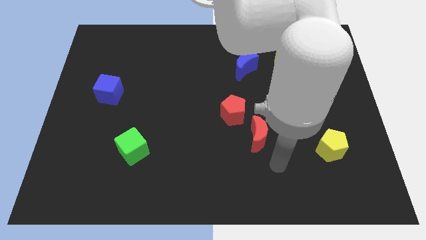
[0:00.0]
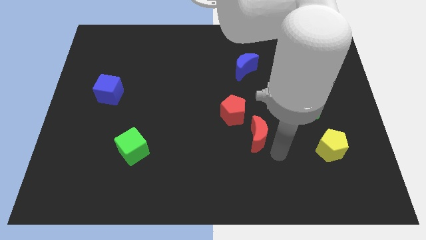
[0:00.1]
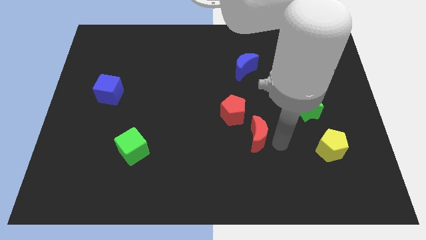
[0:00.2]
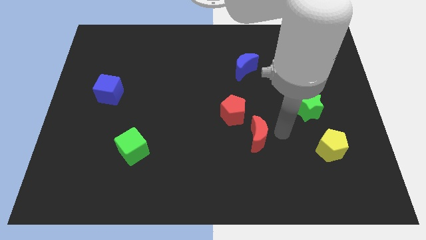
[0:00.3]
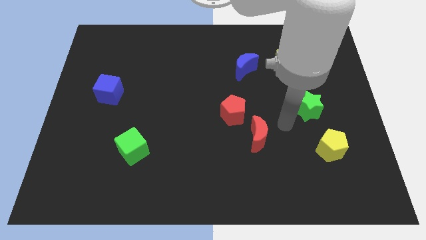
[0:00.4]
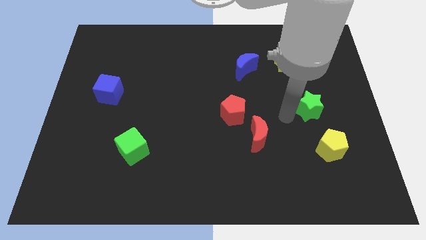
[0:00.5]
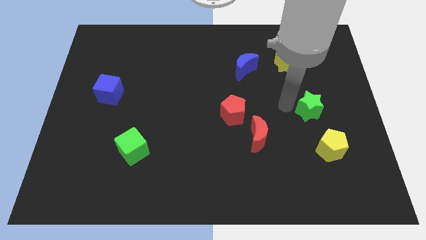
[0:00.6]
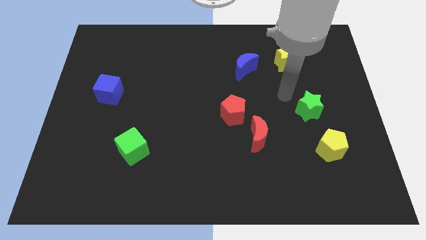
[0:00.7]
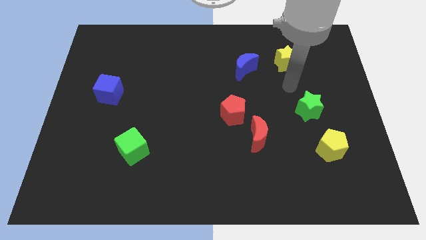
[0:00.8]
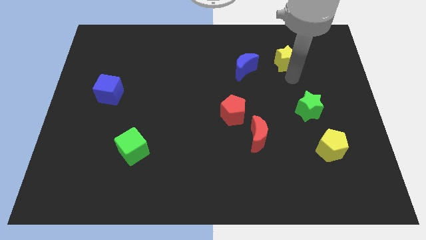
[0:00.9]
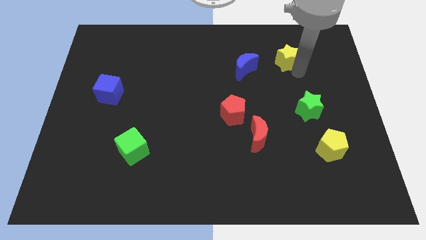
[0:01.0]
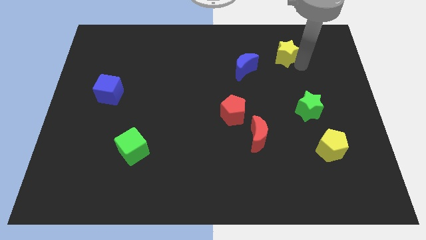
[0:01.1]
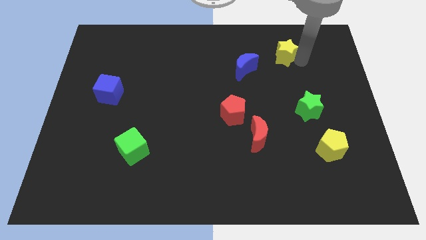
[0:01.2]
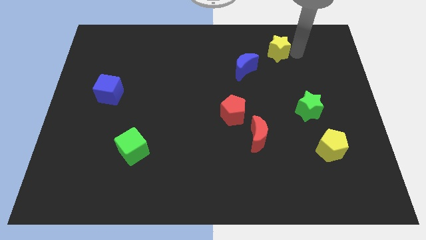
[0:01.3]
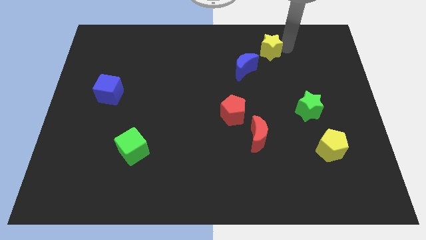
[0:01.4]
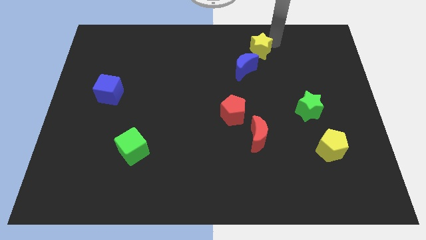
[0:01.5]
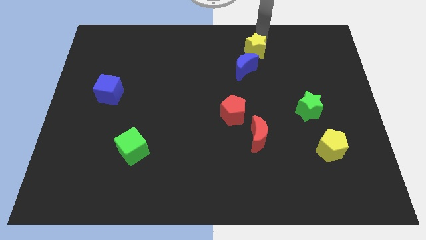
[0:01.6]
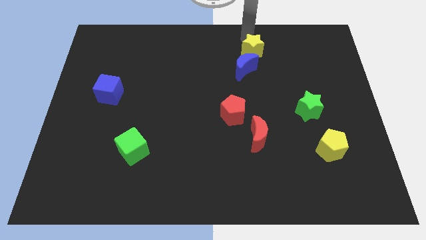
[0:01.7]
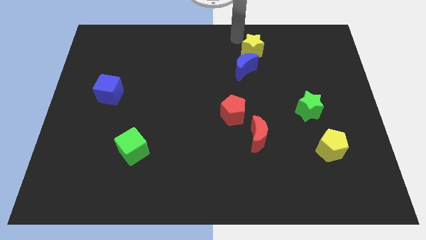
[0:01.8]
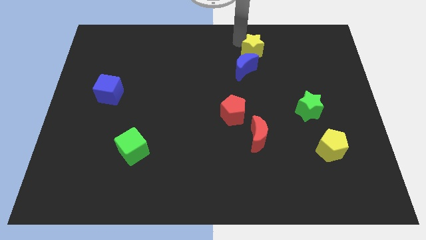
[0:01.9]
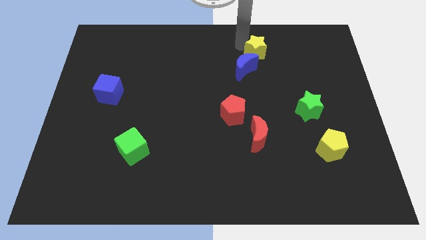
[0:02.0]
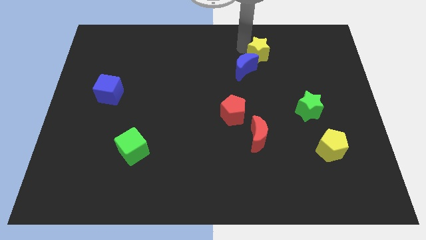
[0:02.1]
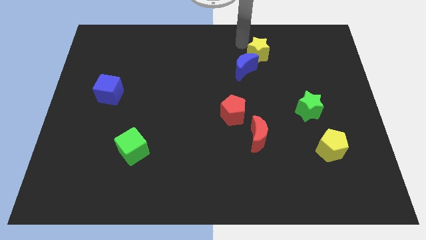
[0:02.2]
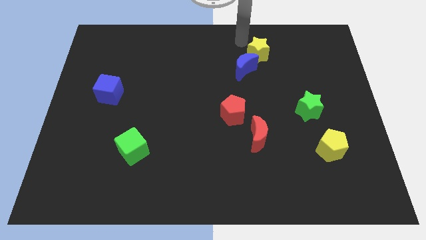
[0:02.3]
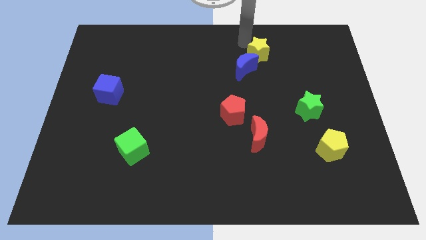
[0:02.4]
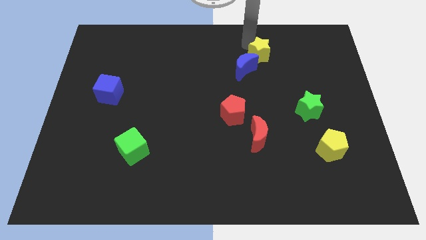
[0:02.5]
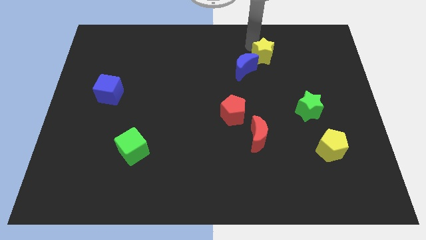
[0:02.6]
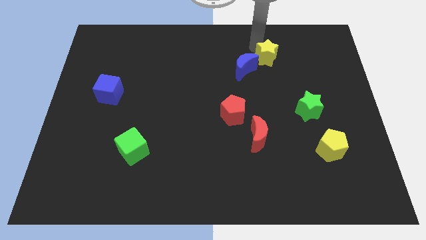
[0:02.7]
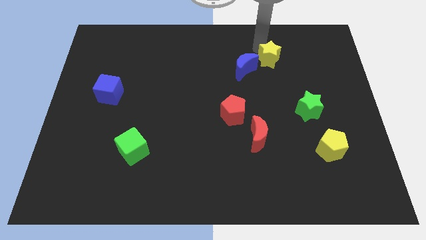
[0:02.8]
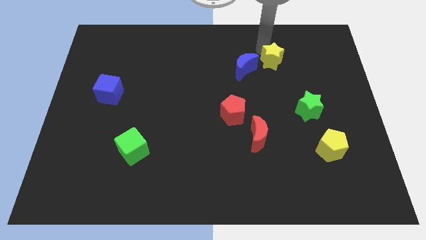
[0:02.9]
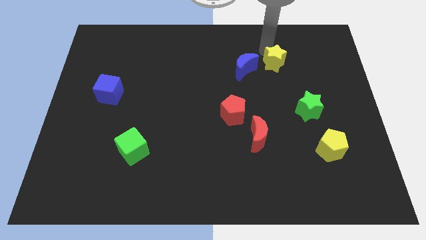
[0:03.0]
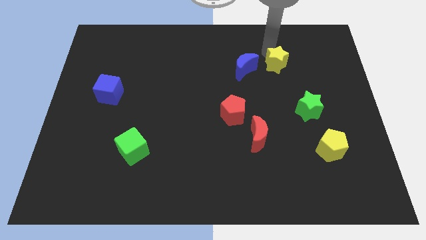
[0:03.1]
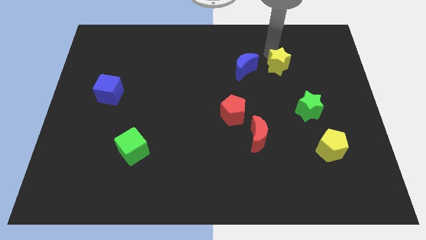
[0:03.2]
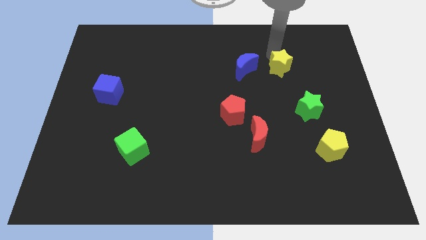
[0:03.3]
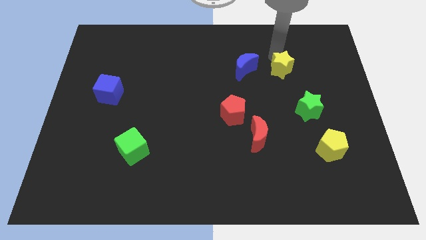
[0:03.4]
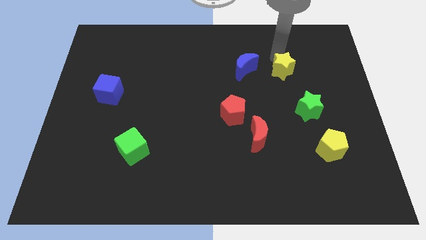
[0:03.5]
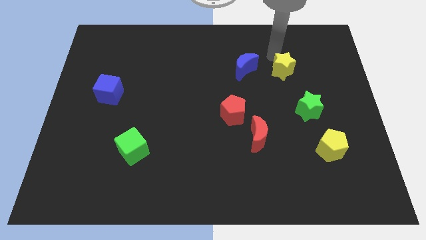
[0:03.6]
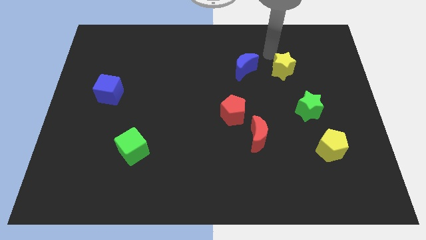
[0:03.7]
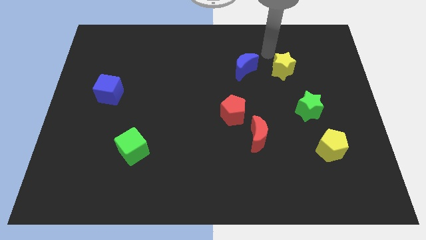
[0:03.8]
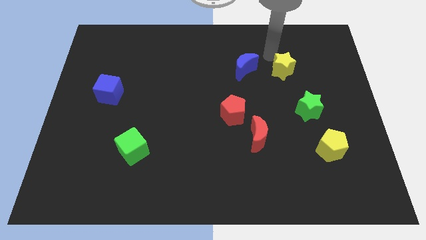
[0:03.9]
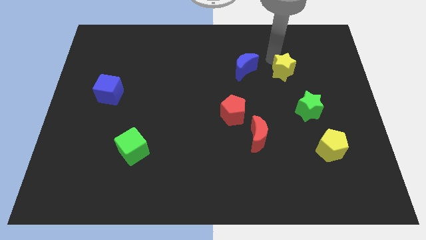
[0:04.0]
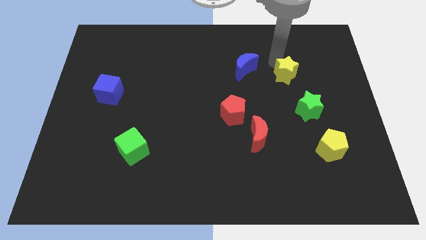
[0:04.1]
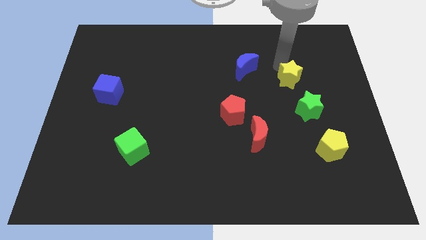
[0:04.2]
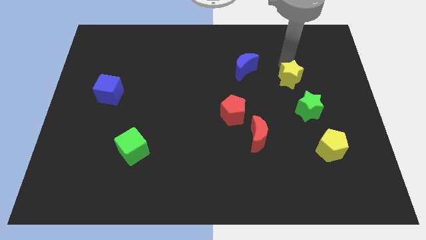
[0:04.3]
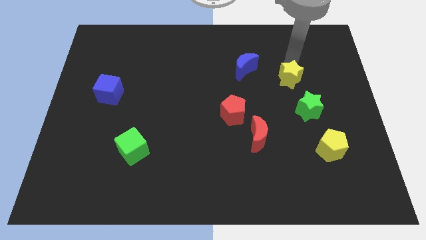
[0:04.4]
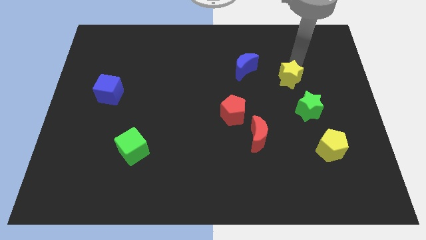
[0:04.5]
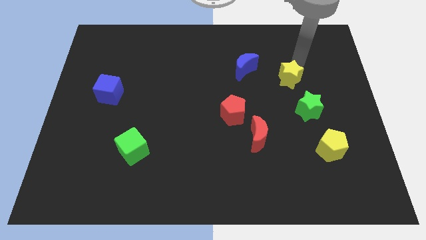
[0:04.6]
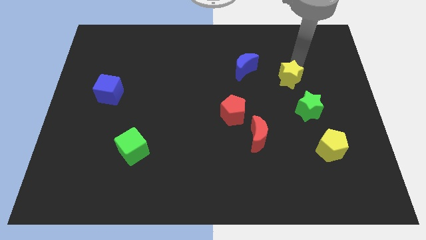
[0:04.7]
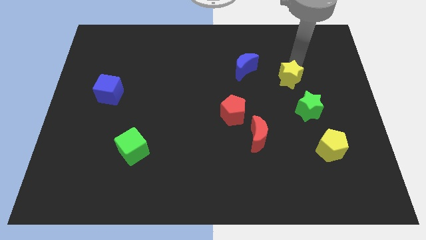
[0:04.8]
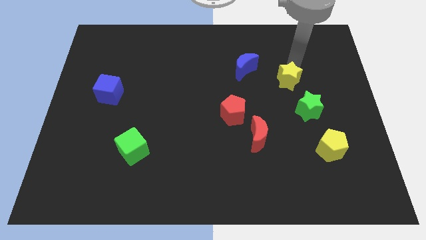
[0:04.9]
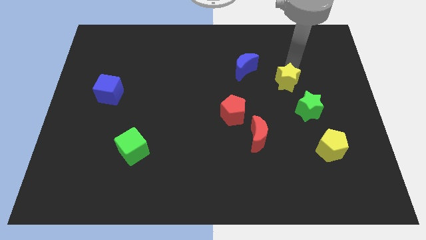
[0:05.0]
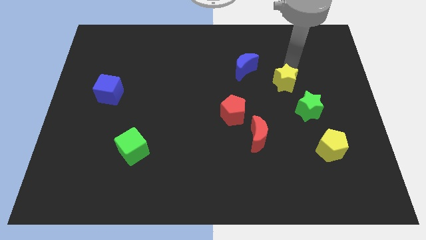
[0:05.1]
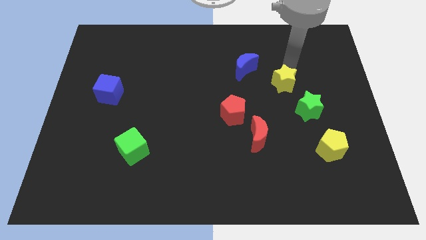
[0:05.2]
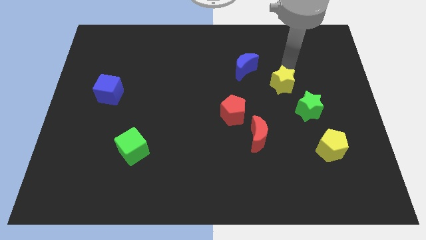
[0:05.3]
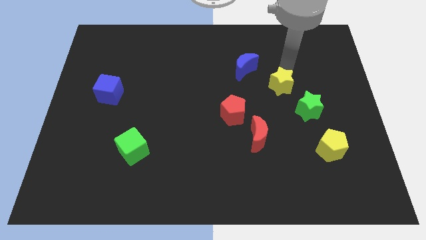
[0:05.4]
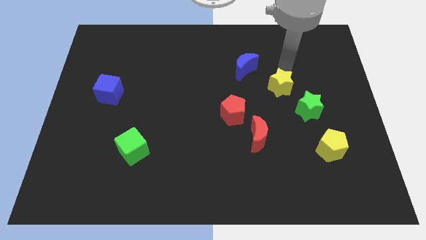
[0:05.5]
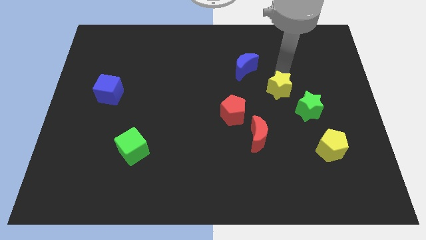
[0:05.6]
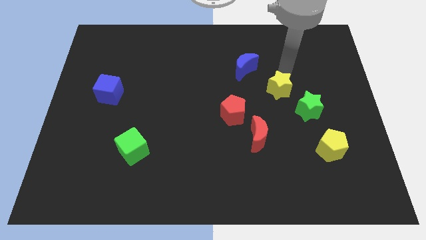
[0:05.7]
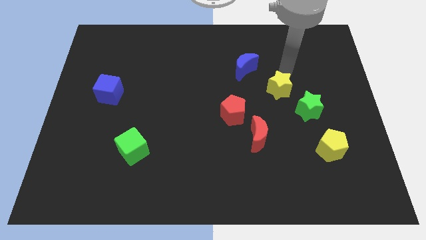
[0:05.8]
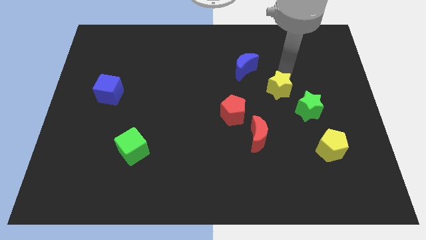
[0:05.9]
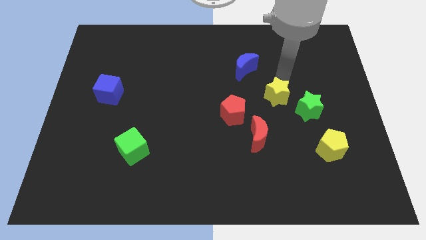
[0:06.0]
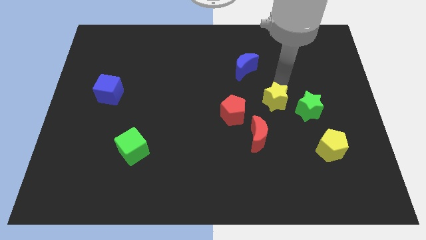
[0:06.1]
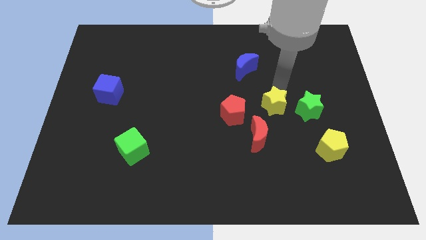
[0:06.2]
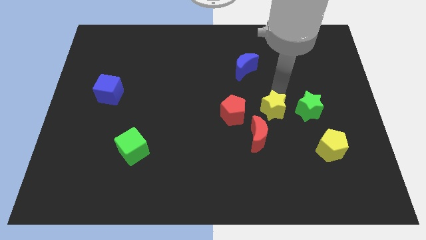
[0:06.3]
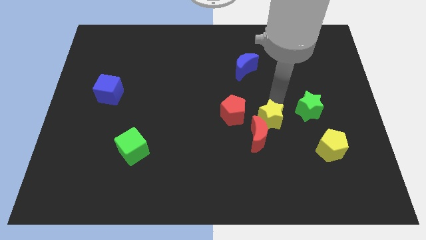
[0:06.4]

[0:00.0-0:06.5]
put the yellow star next to the red moon

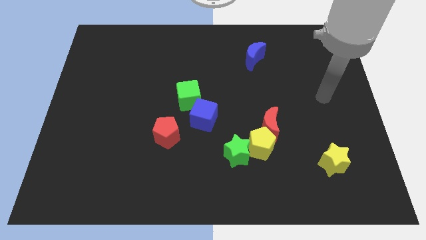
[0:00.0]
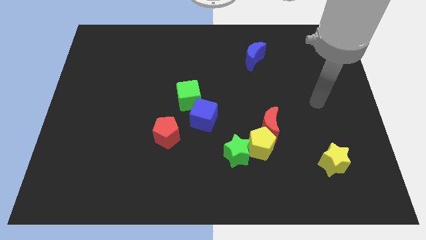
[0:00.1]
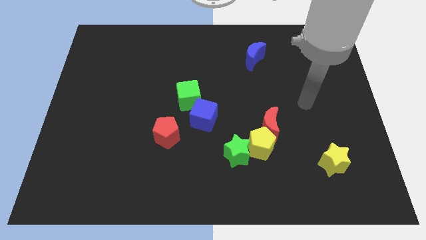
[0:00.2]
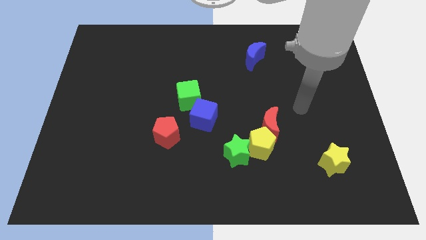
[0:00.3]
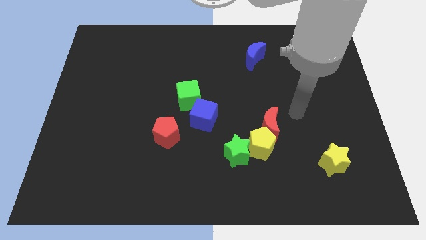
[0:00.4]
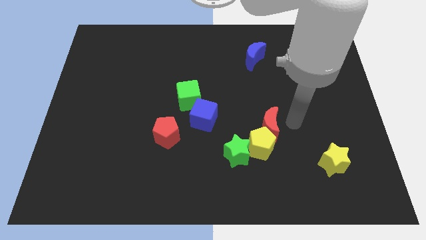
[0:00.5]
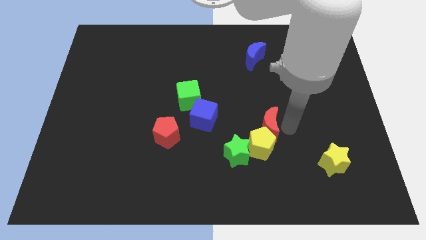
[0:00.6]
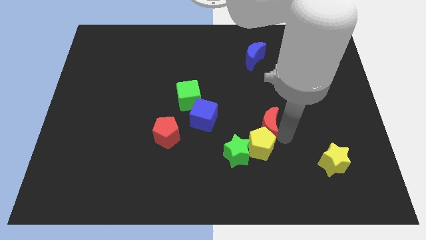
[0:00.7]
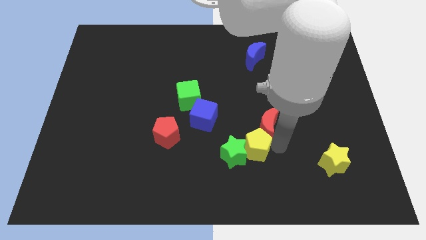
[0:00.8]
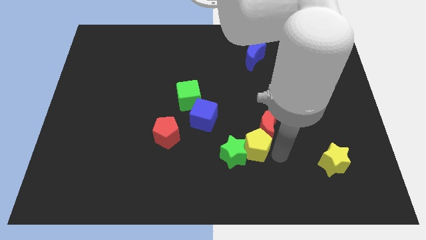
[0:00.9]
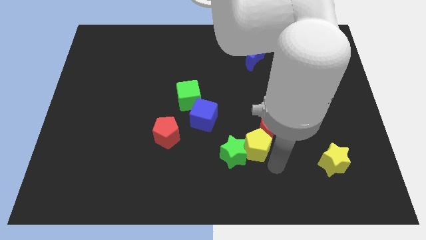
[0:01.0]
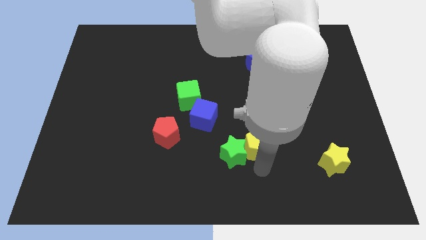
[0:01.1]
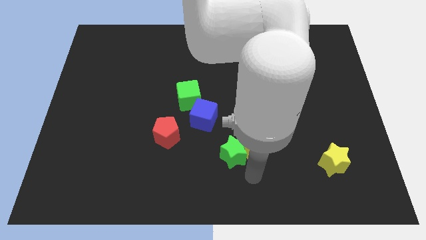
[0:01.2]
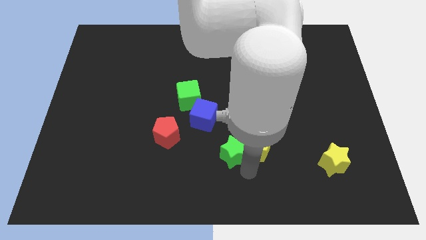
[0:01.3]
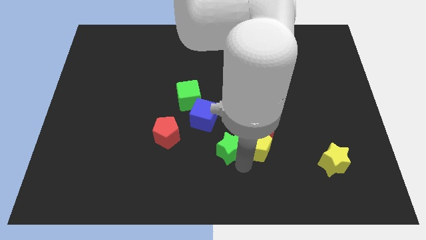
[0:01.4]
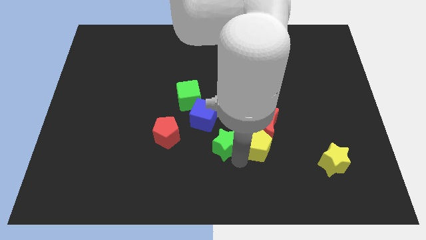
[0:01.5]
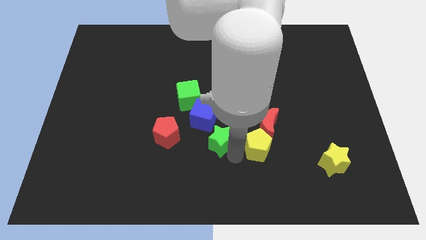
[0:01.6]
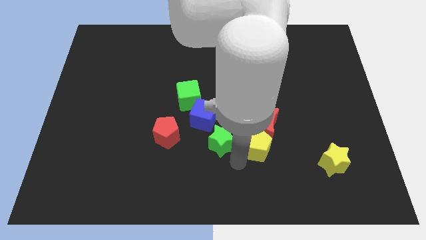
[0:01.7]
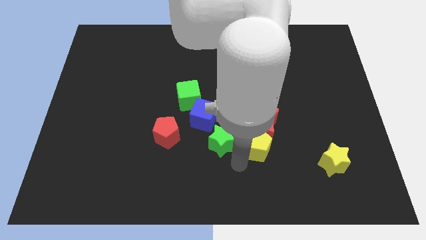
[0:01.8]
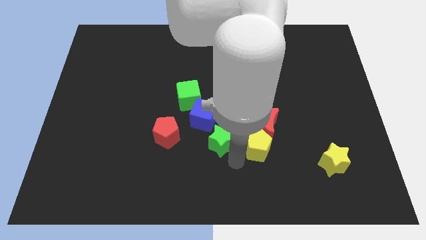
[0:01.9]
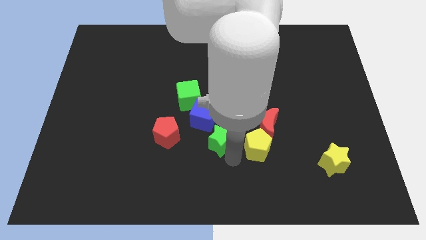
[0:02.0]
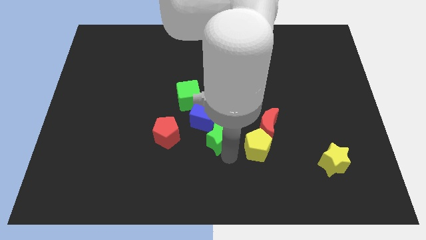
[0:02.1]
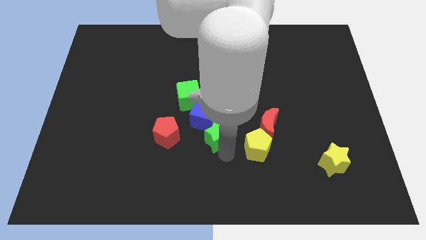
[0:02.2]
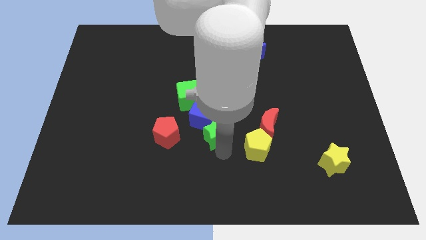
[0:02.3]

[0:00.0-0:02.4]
move the green star to the blue cube
